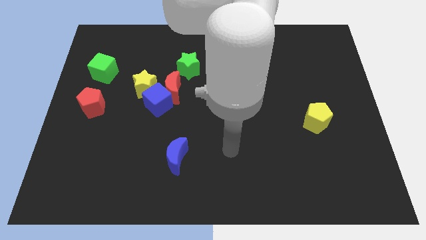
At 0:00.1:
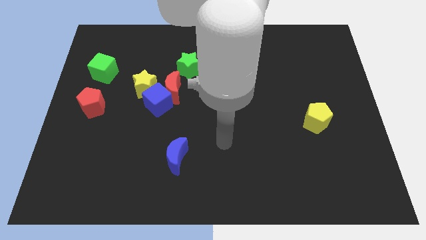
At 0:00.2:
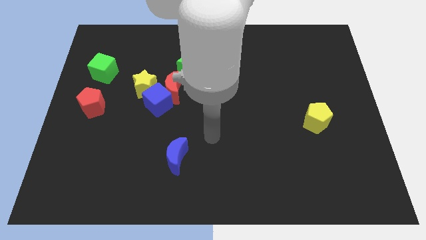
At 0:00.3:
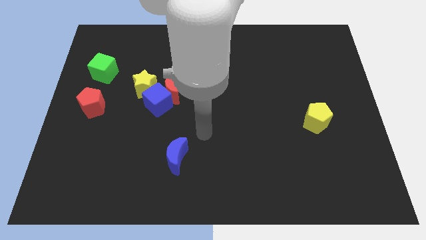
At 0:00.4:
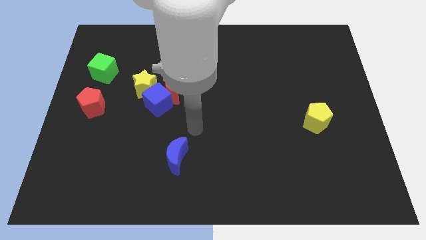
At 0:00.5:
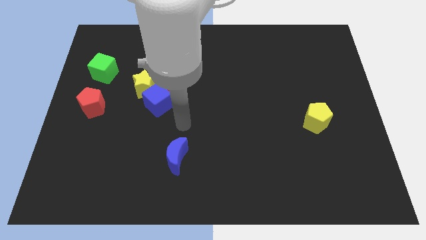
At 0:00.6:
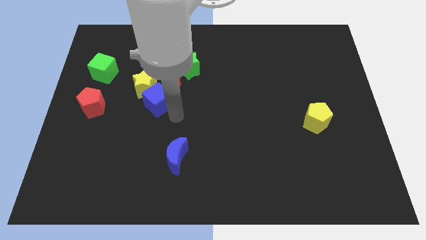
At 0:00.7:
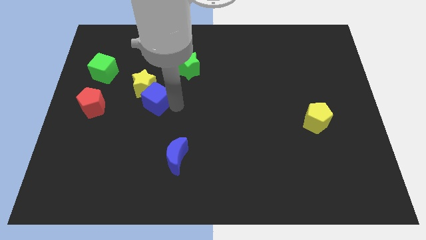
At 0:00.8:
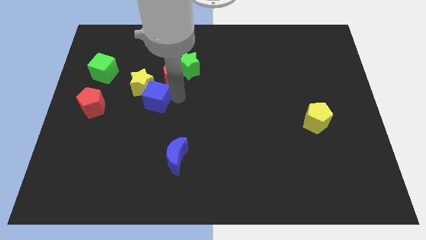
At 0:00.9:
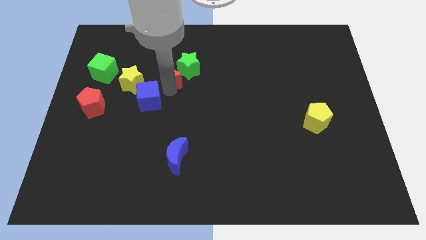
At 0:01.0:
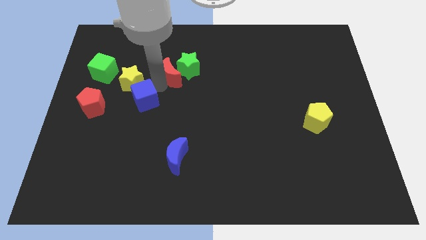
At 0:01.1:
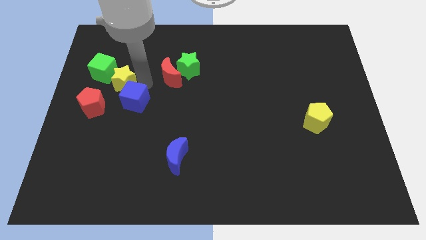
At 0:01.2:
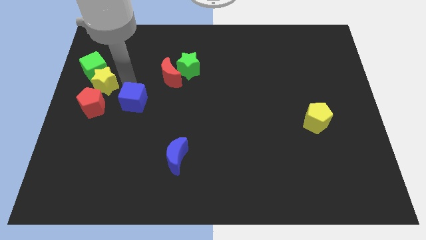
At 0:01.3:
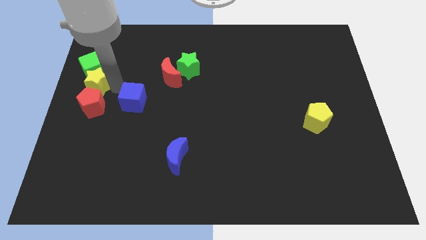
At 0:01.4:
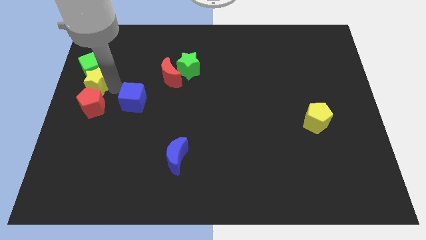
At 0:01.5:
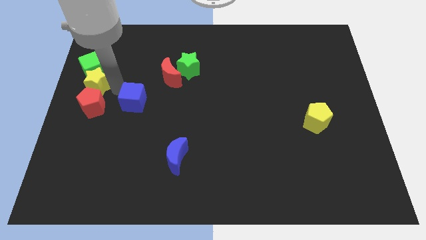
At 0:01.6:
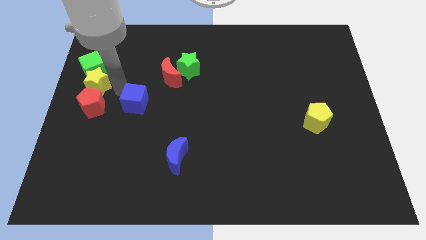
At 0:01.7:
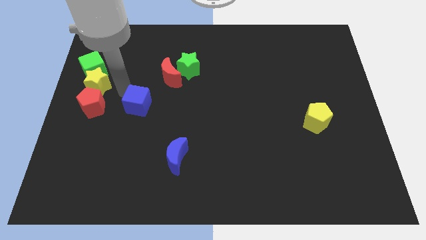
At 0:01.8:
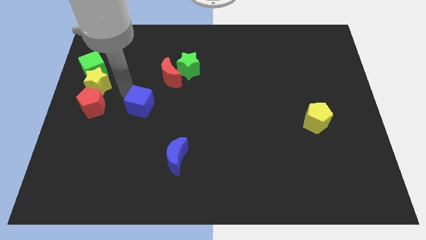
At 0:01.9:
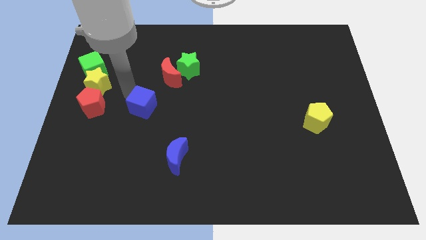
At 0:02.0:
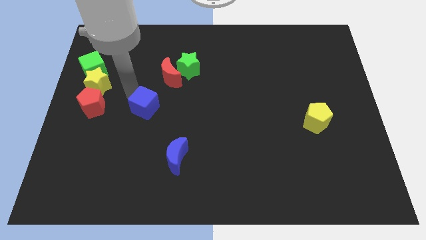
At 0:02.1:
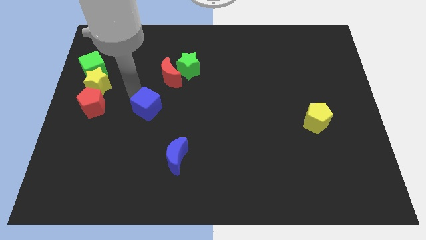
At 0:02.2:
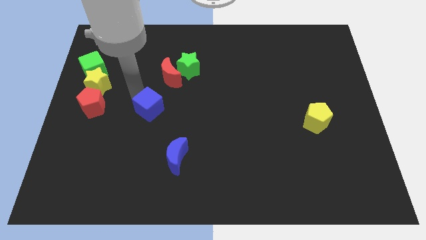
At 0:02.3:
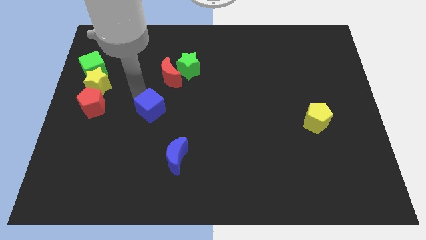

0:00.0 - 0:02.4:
move the blue cube away from the red moon and yellow star

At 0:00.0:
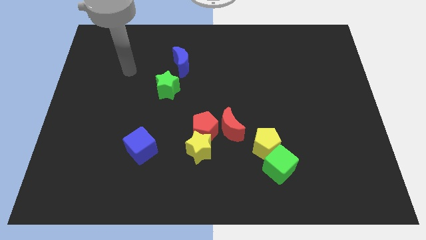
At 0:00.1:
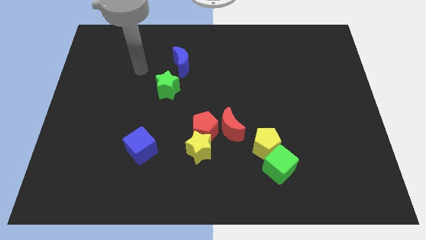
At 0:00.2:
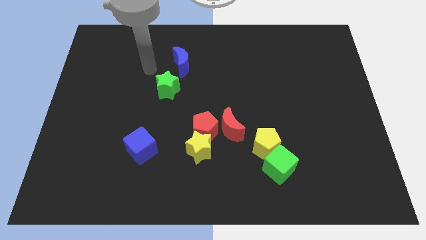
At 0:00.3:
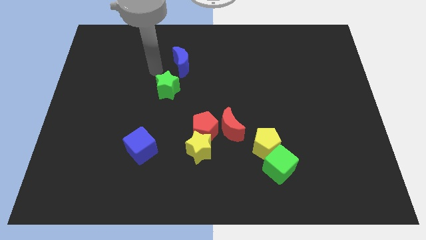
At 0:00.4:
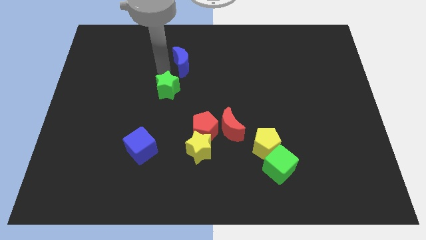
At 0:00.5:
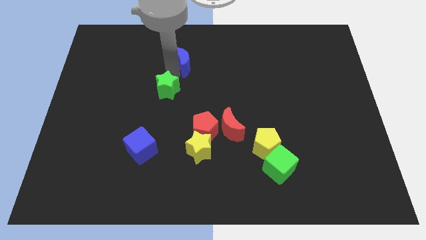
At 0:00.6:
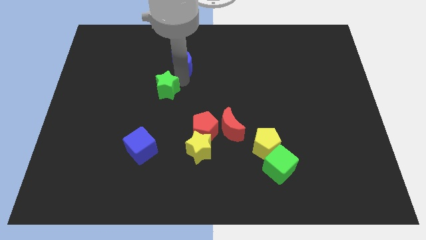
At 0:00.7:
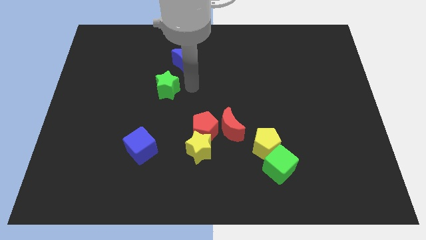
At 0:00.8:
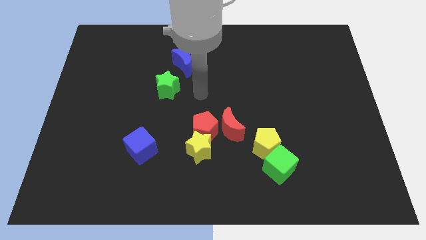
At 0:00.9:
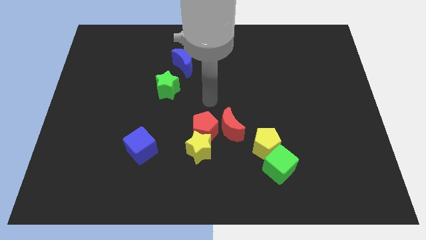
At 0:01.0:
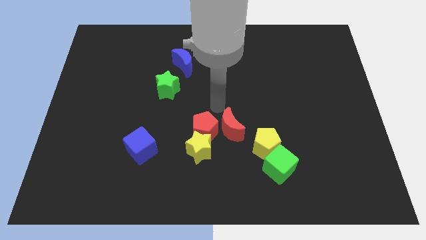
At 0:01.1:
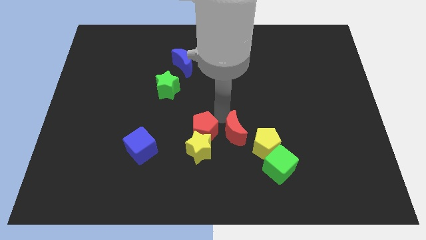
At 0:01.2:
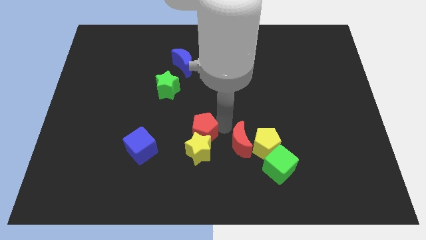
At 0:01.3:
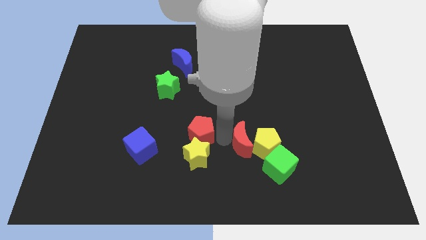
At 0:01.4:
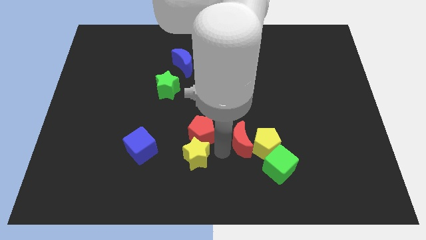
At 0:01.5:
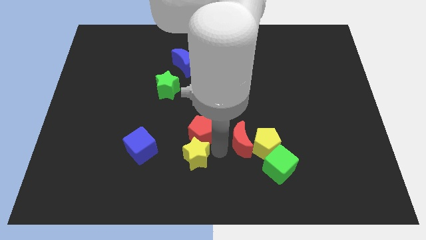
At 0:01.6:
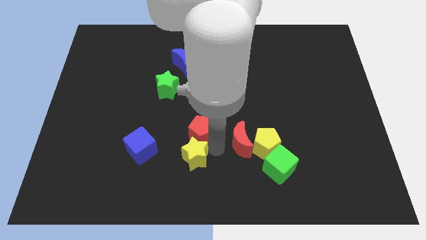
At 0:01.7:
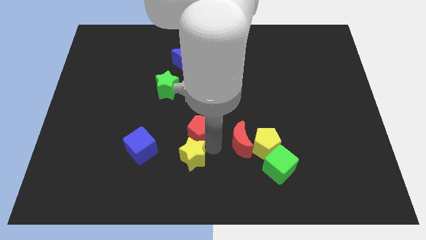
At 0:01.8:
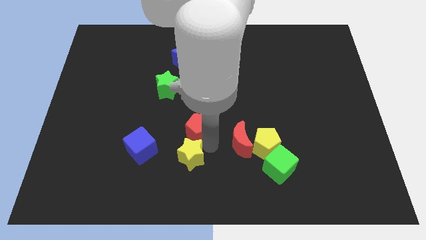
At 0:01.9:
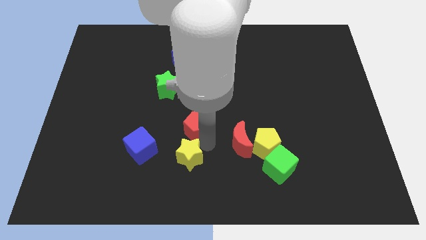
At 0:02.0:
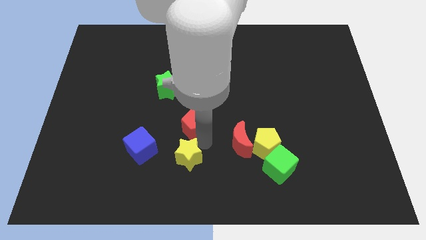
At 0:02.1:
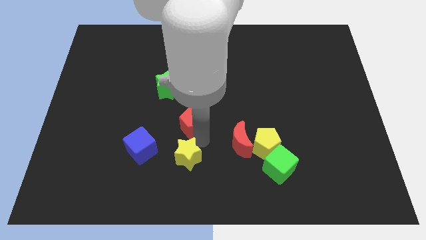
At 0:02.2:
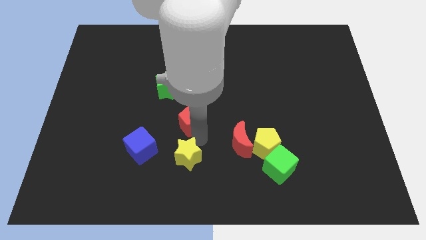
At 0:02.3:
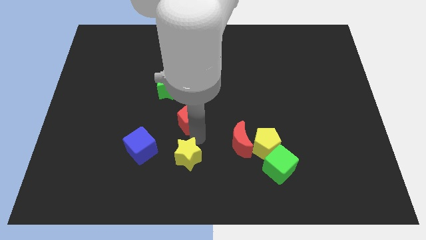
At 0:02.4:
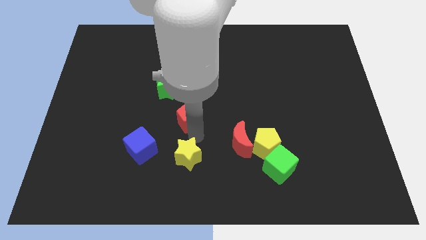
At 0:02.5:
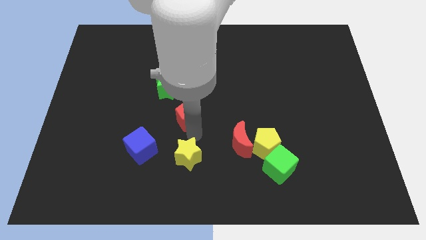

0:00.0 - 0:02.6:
move the red pentagon away from the yellow star and red moon

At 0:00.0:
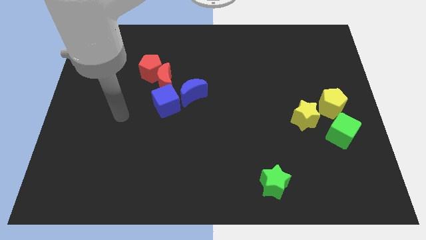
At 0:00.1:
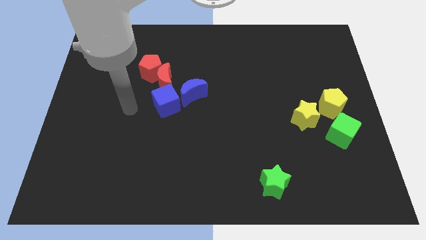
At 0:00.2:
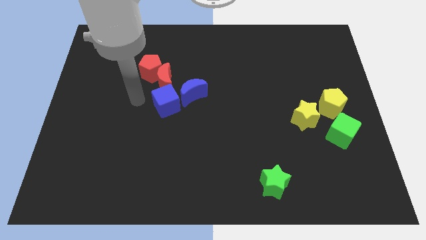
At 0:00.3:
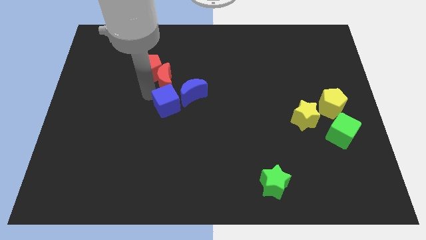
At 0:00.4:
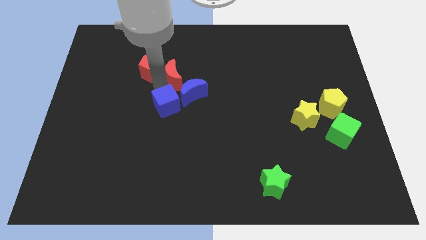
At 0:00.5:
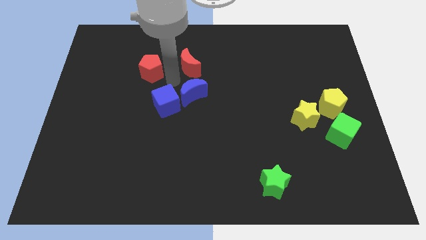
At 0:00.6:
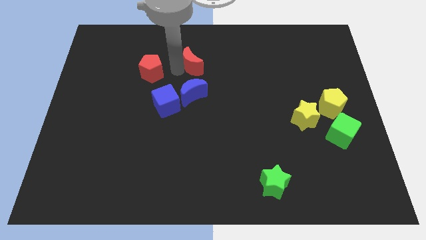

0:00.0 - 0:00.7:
move the red pentagon away from the red moon

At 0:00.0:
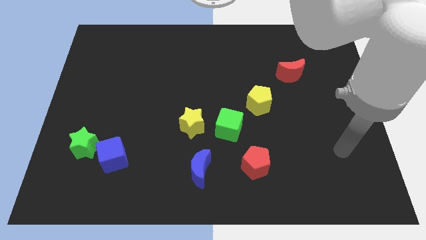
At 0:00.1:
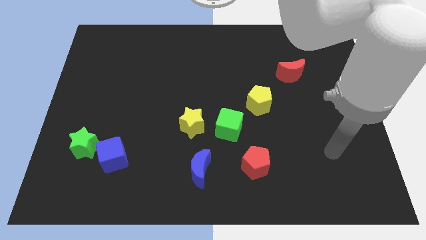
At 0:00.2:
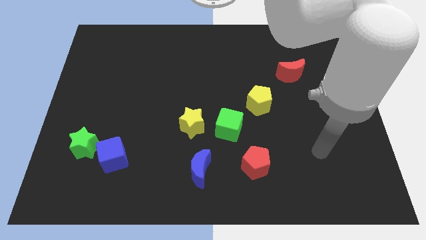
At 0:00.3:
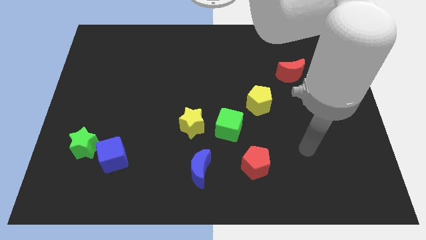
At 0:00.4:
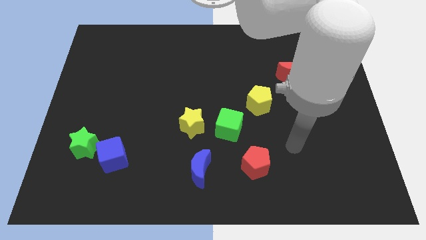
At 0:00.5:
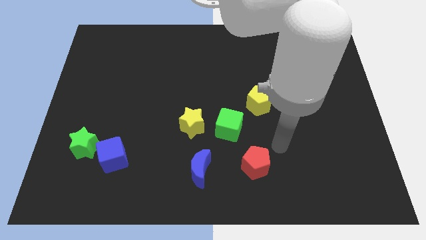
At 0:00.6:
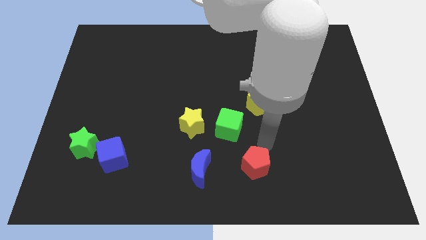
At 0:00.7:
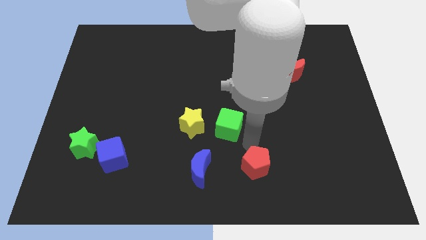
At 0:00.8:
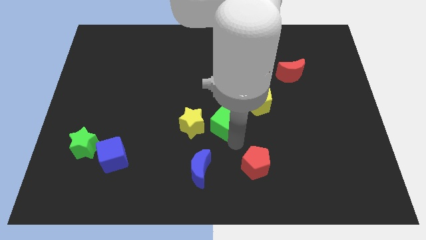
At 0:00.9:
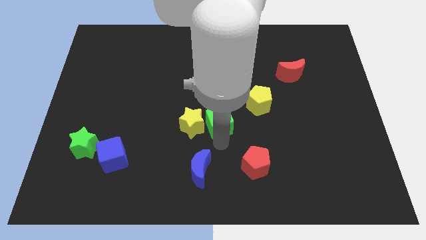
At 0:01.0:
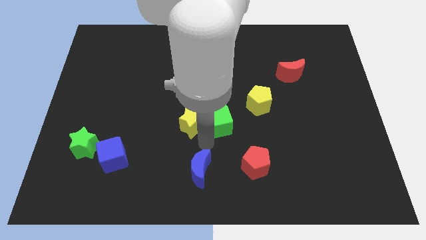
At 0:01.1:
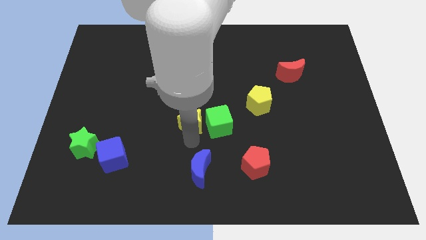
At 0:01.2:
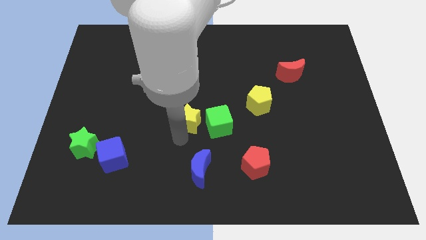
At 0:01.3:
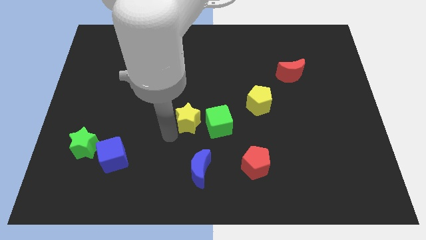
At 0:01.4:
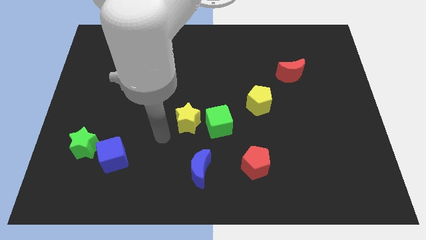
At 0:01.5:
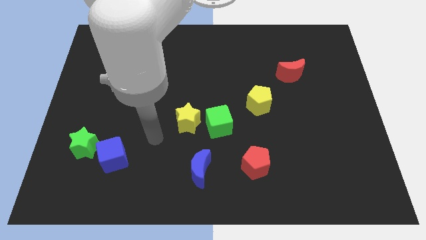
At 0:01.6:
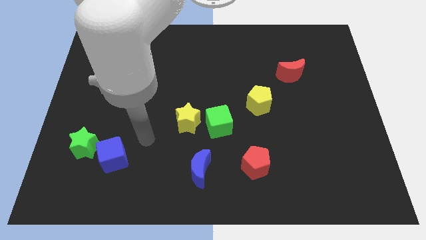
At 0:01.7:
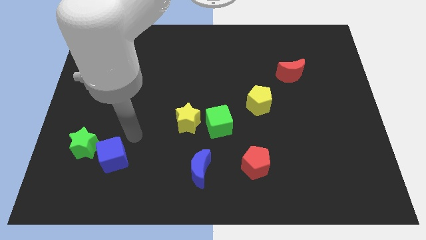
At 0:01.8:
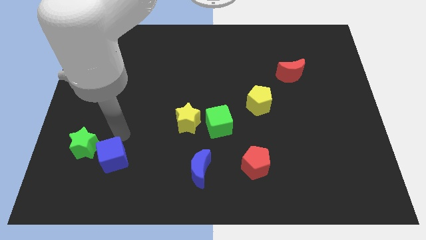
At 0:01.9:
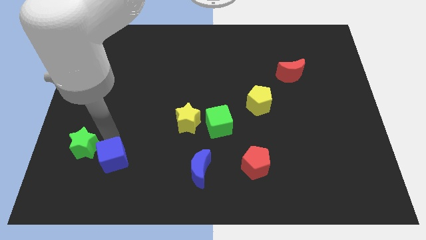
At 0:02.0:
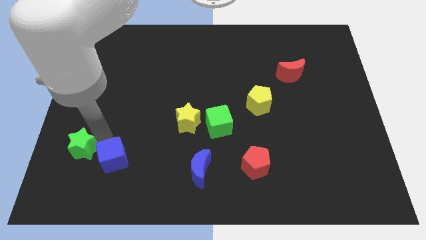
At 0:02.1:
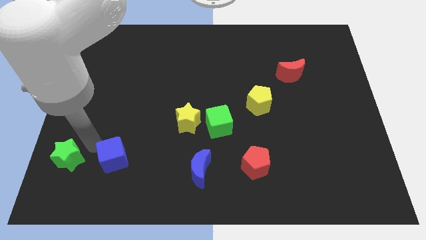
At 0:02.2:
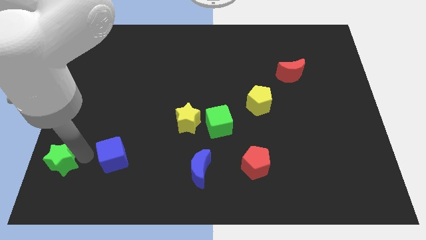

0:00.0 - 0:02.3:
separate the blue cube from the green star

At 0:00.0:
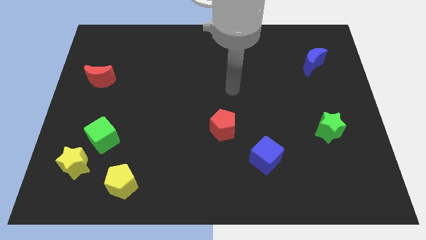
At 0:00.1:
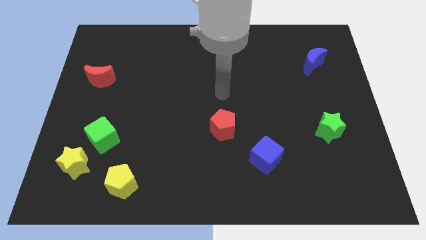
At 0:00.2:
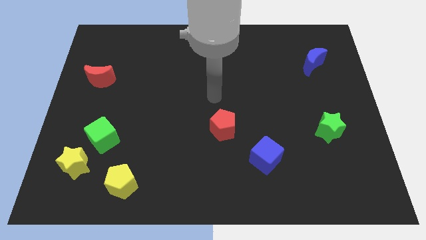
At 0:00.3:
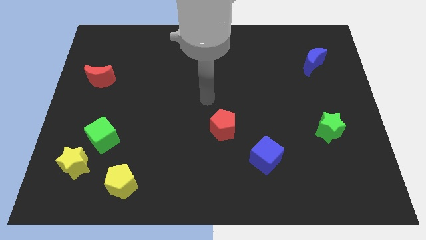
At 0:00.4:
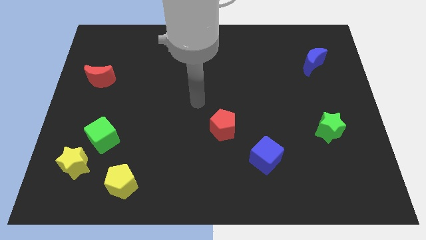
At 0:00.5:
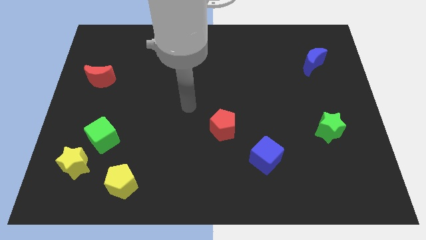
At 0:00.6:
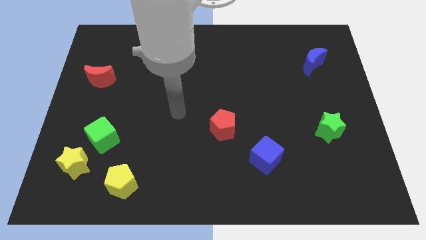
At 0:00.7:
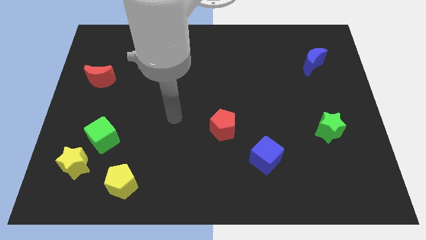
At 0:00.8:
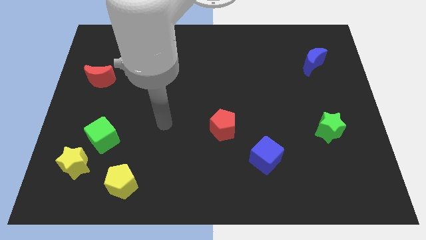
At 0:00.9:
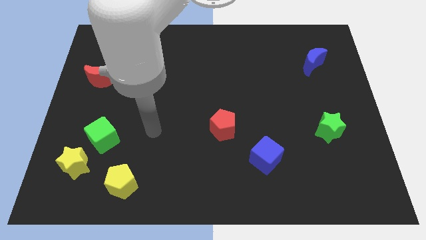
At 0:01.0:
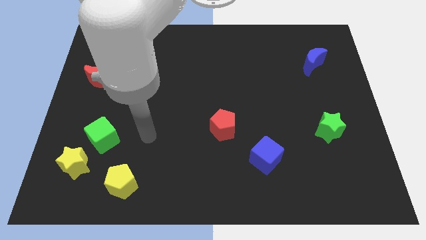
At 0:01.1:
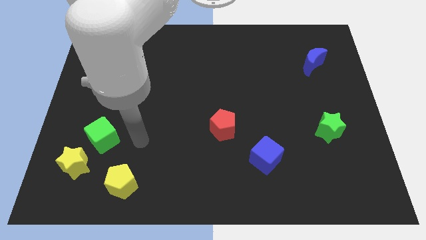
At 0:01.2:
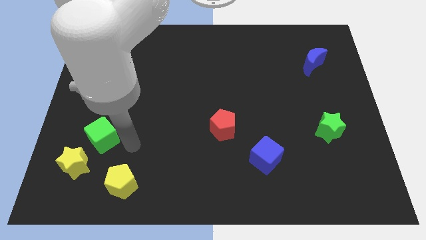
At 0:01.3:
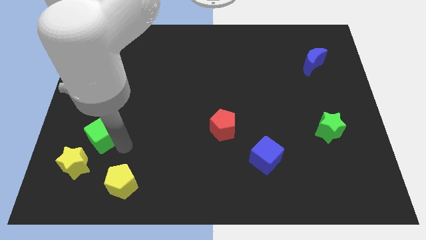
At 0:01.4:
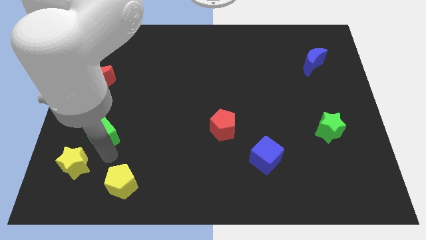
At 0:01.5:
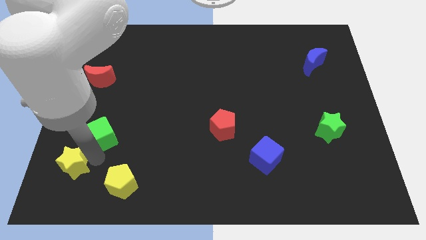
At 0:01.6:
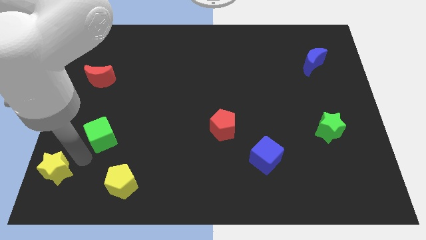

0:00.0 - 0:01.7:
pull the green cube apart from the yellow star
